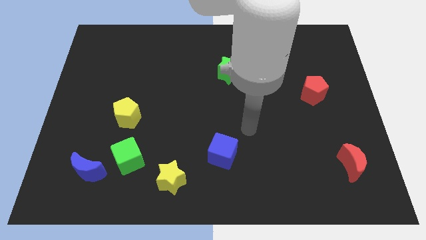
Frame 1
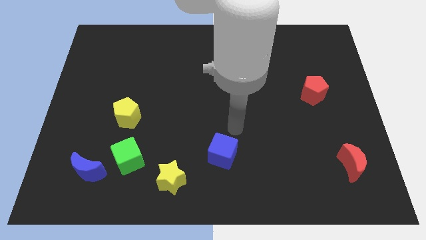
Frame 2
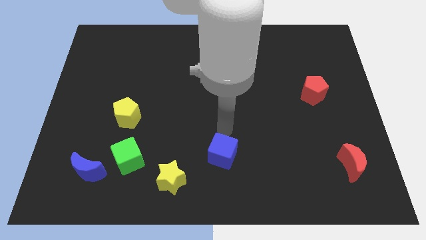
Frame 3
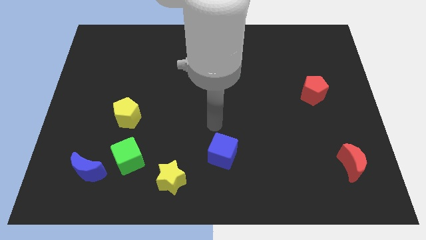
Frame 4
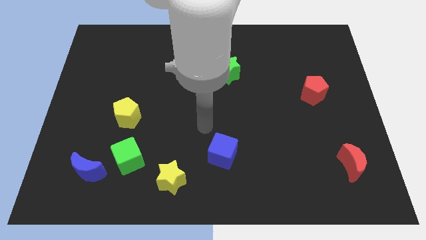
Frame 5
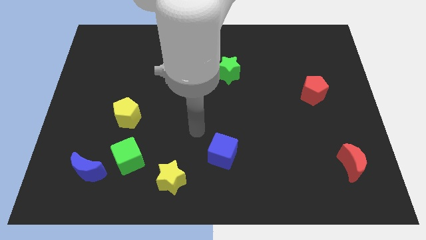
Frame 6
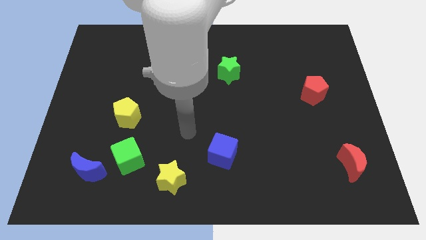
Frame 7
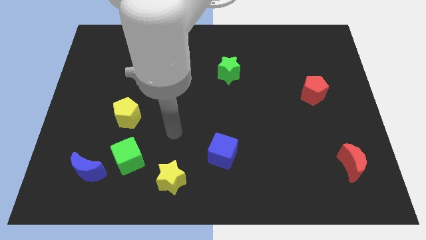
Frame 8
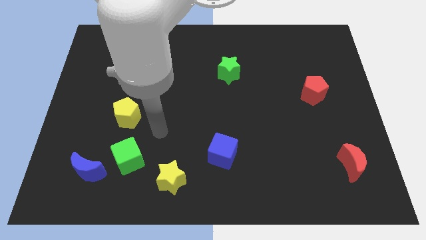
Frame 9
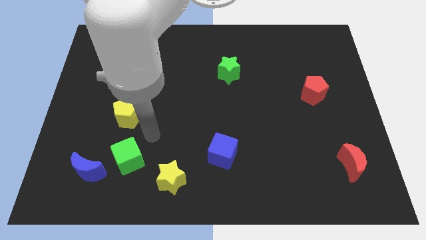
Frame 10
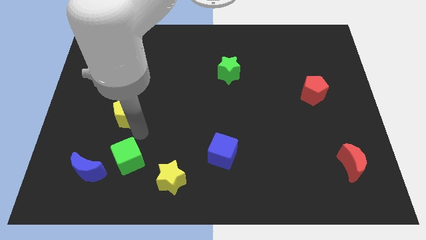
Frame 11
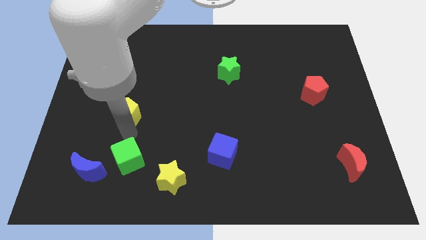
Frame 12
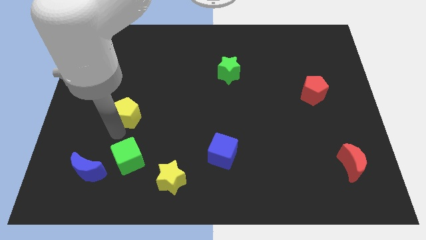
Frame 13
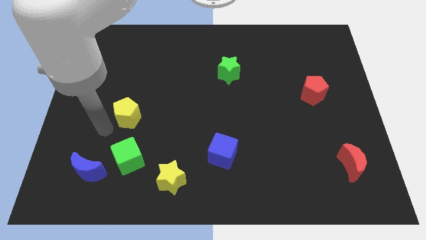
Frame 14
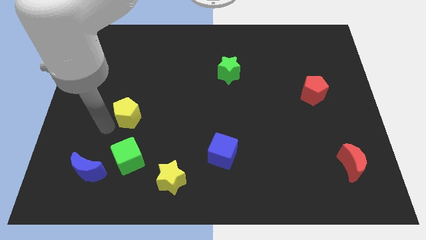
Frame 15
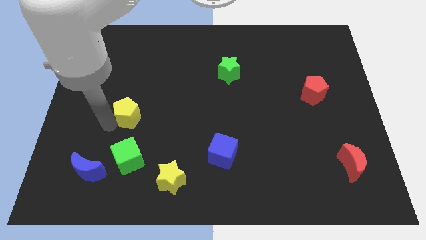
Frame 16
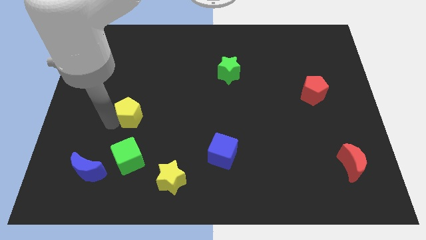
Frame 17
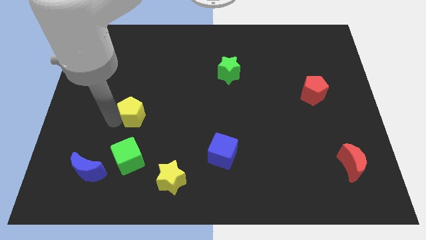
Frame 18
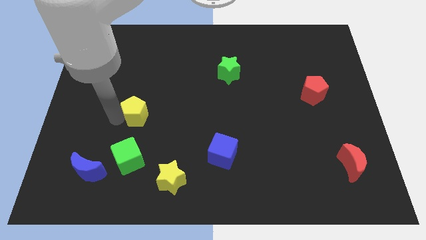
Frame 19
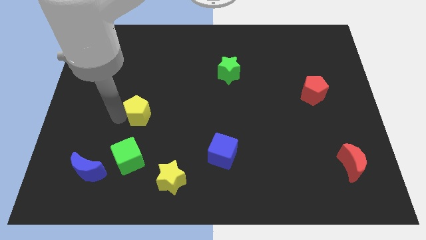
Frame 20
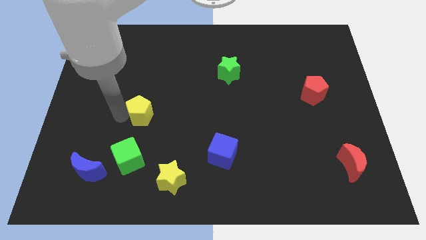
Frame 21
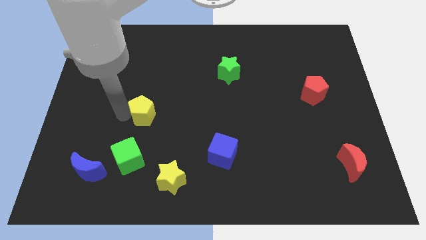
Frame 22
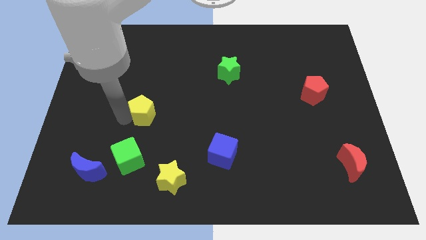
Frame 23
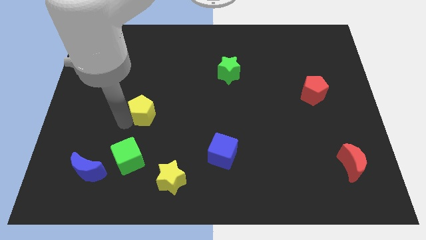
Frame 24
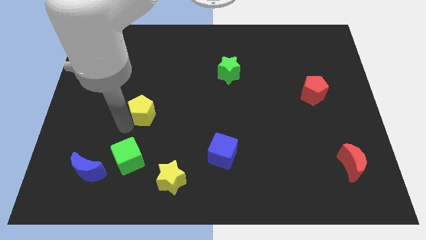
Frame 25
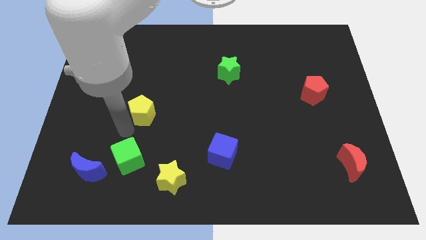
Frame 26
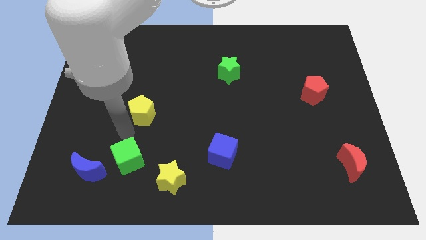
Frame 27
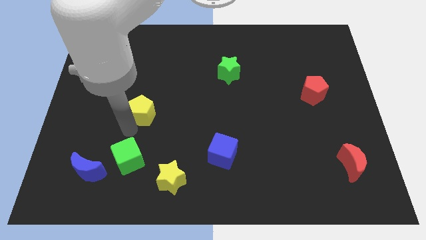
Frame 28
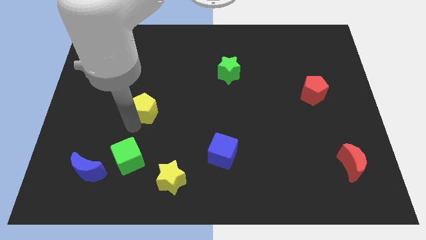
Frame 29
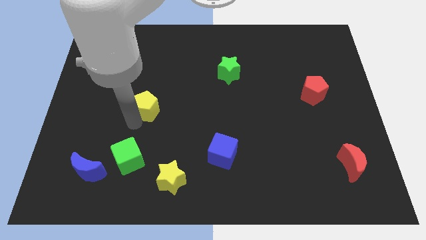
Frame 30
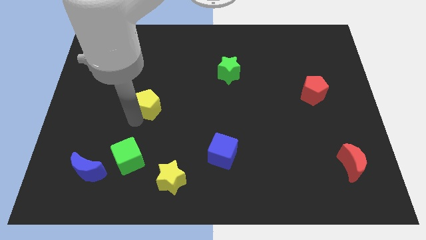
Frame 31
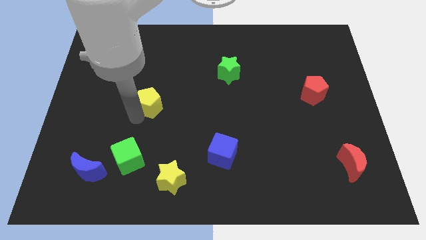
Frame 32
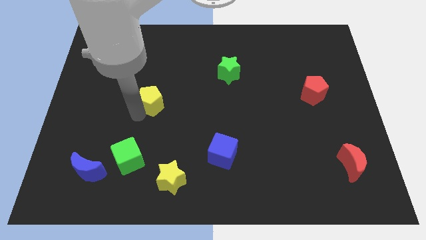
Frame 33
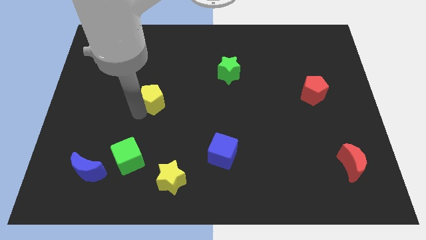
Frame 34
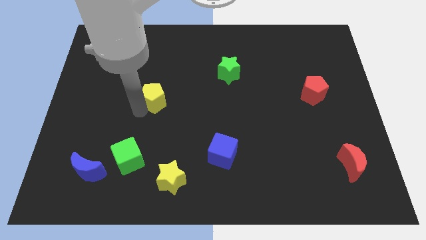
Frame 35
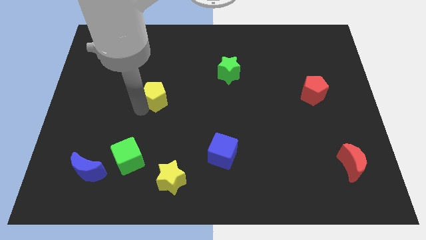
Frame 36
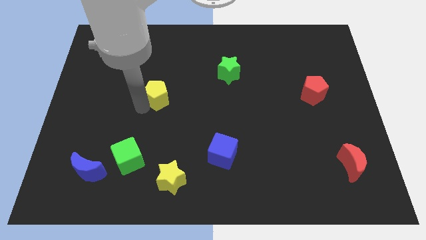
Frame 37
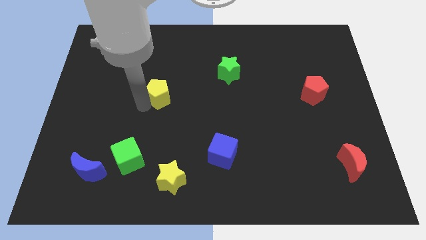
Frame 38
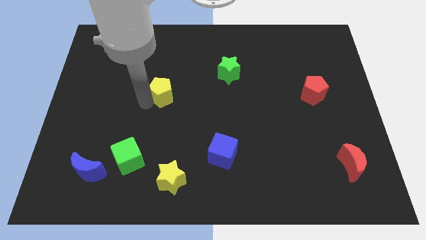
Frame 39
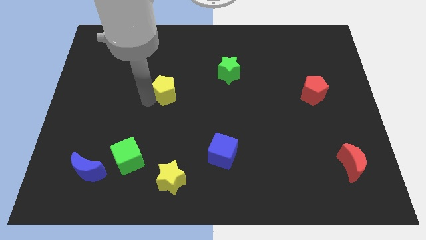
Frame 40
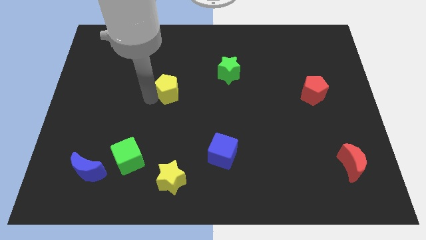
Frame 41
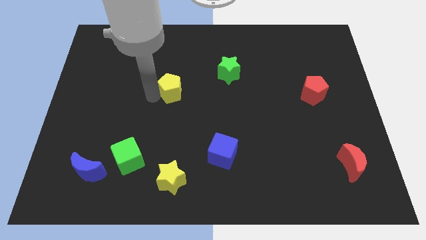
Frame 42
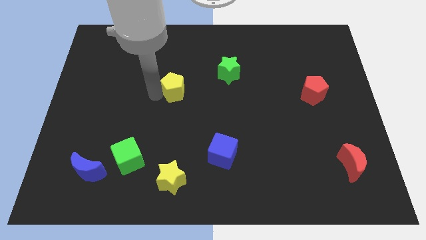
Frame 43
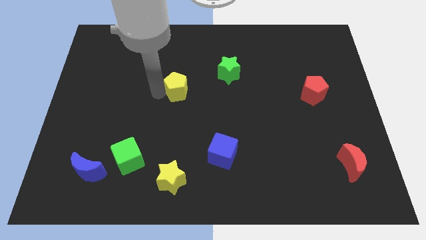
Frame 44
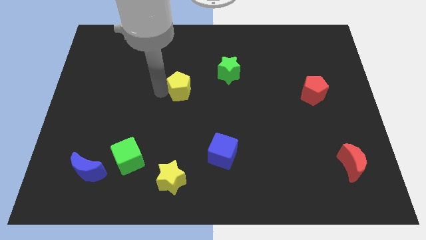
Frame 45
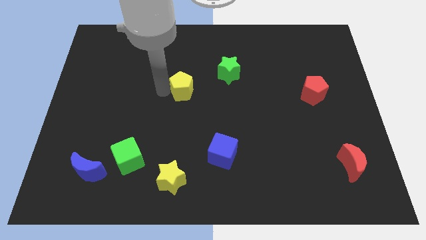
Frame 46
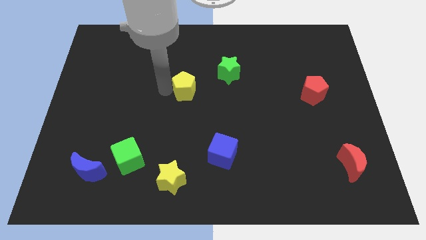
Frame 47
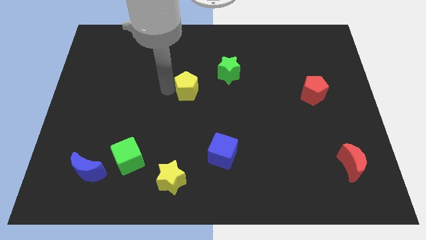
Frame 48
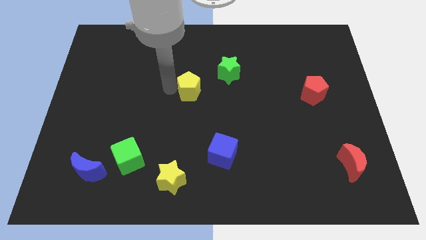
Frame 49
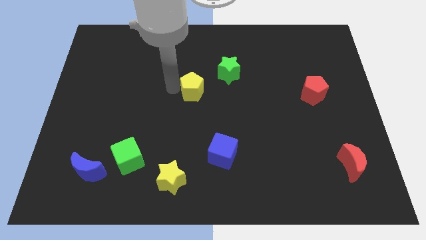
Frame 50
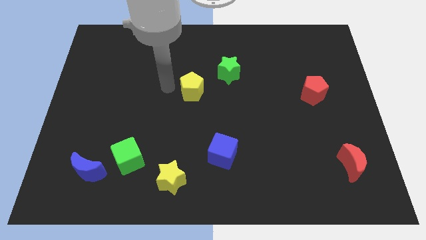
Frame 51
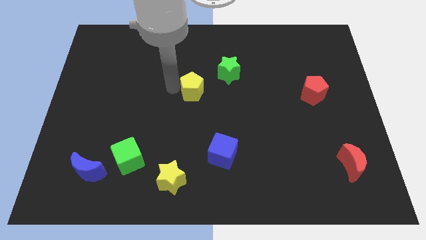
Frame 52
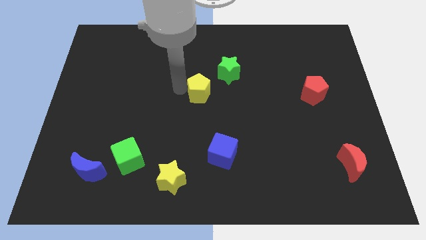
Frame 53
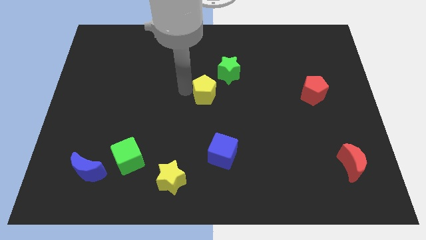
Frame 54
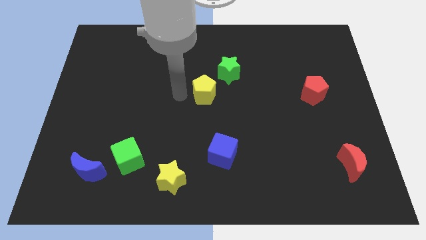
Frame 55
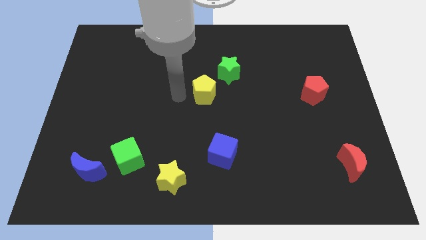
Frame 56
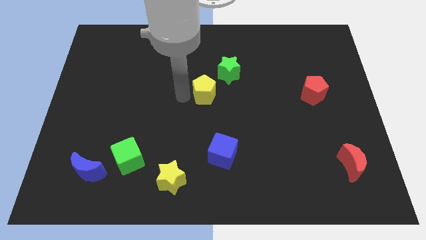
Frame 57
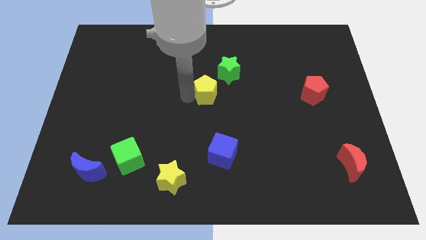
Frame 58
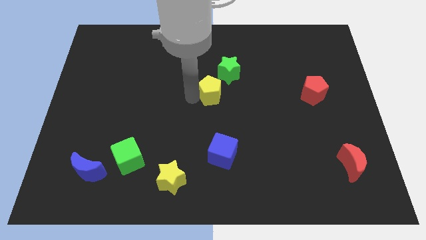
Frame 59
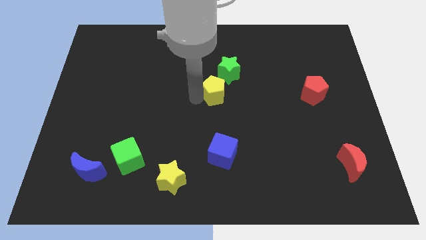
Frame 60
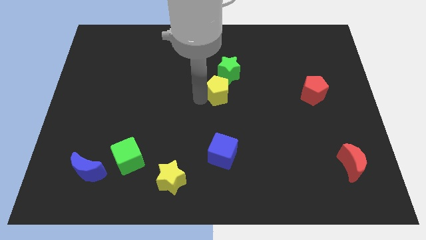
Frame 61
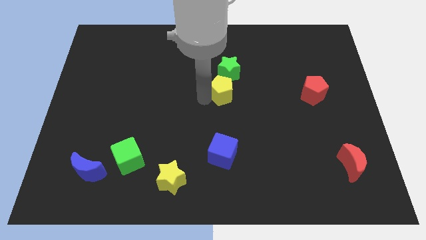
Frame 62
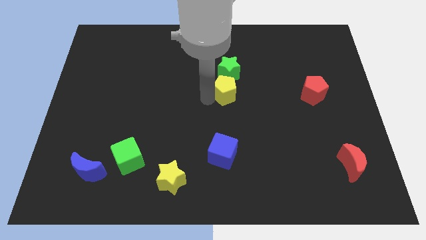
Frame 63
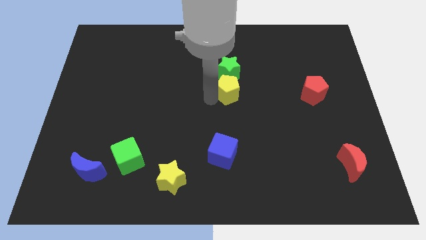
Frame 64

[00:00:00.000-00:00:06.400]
put the yellow pentagon diagonally down and to the right of the green star
